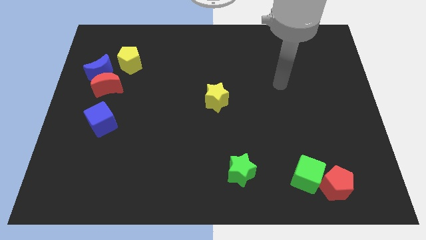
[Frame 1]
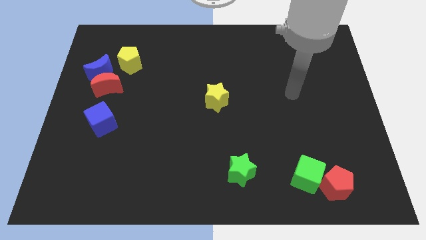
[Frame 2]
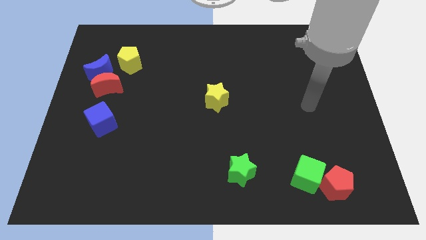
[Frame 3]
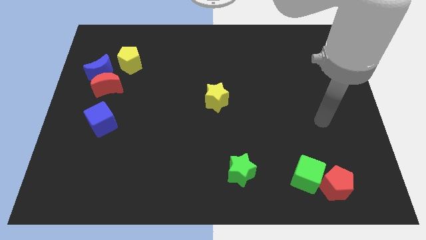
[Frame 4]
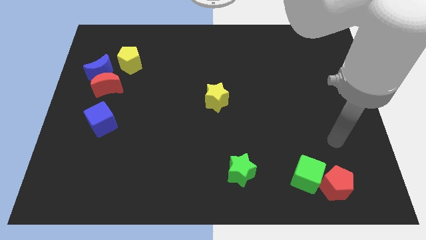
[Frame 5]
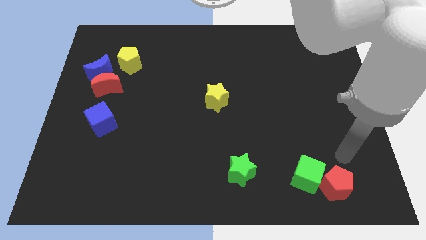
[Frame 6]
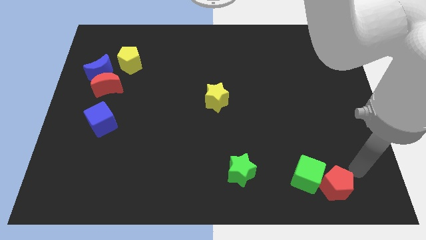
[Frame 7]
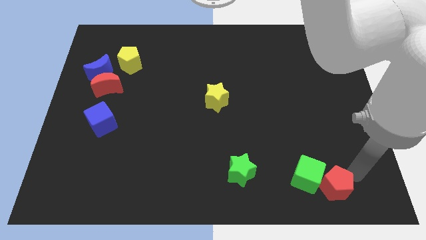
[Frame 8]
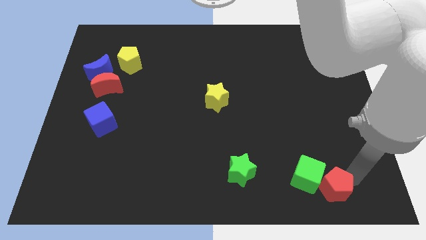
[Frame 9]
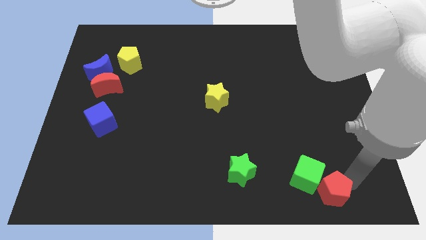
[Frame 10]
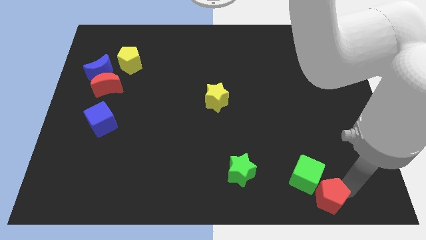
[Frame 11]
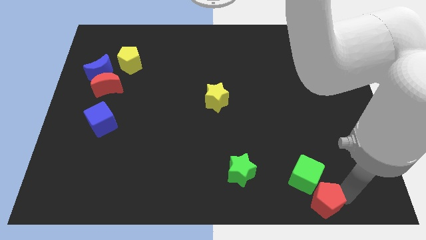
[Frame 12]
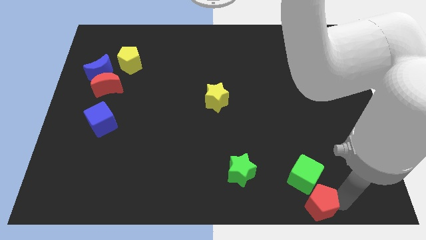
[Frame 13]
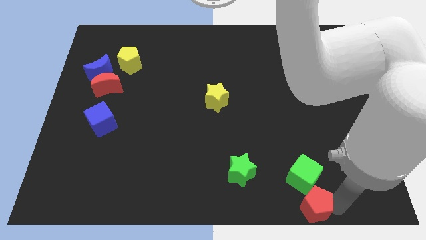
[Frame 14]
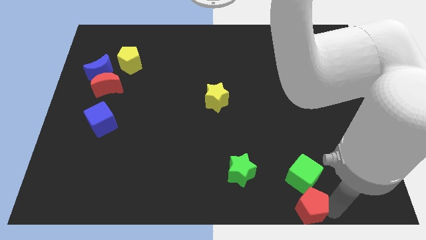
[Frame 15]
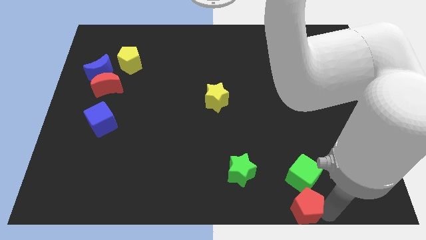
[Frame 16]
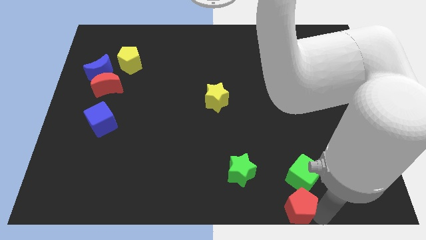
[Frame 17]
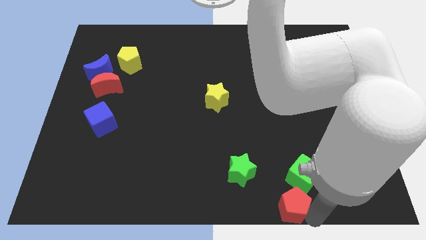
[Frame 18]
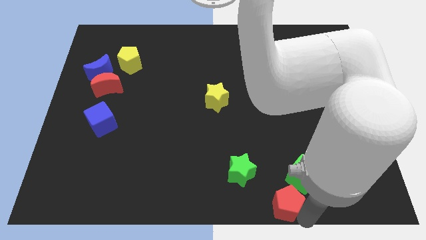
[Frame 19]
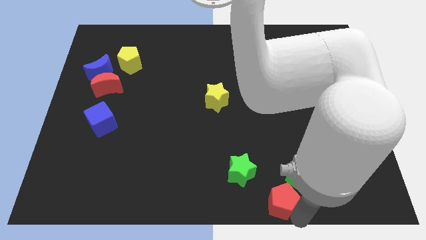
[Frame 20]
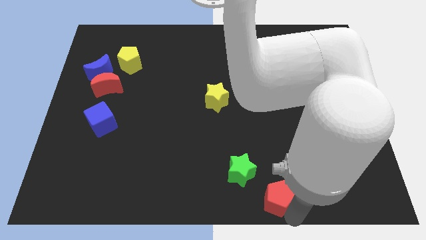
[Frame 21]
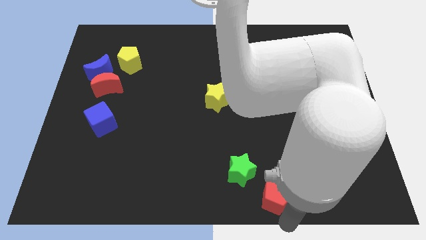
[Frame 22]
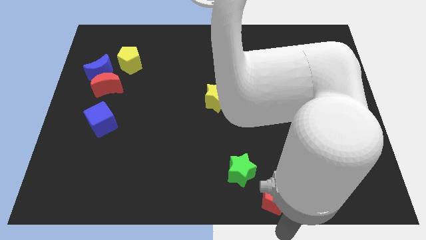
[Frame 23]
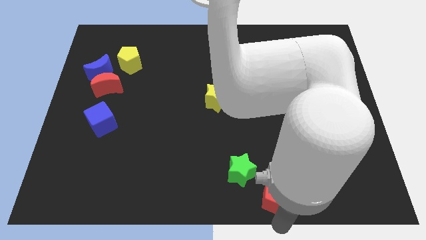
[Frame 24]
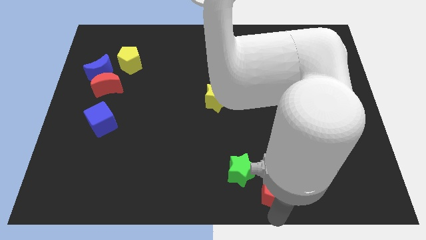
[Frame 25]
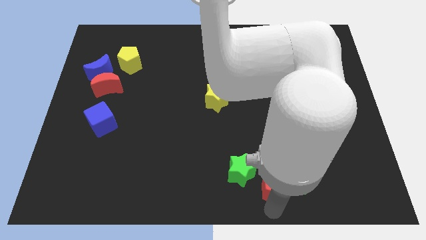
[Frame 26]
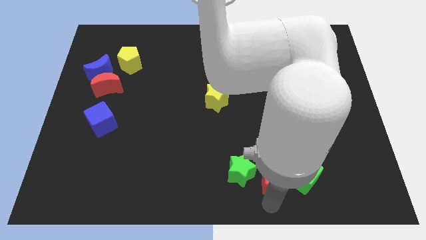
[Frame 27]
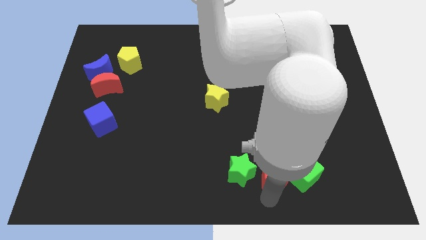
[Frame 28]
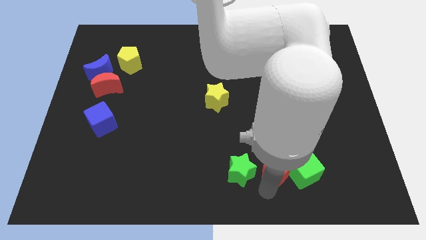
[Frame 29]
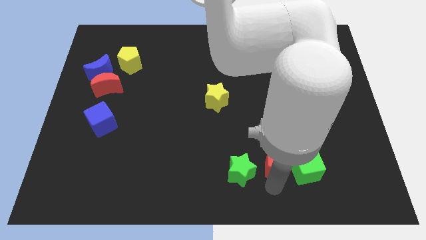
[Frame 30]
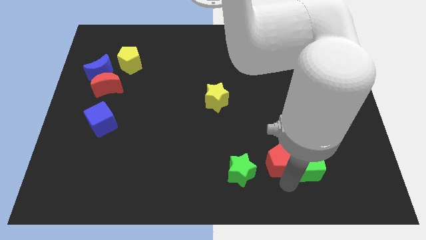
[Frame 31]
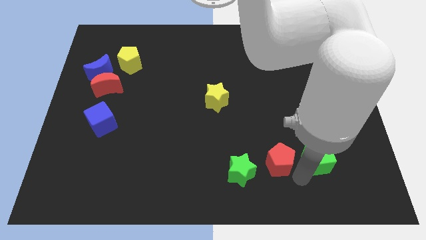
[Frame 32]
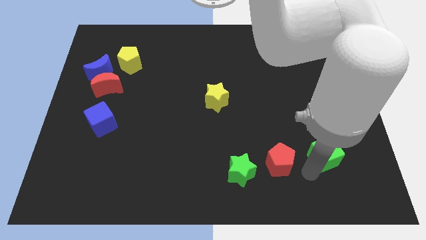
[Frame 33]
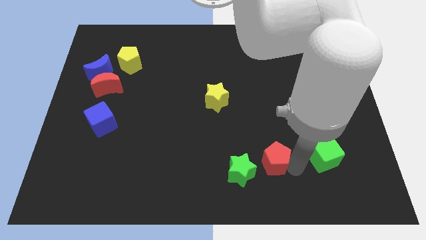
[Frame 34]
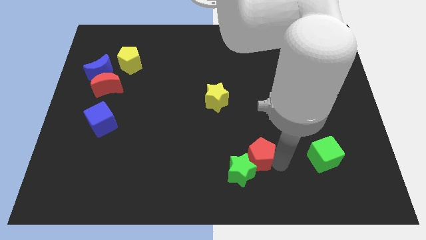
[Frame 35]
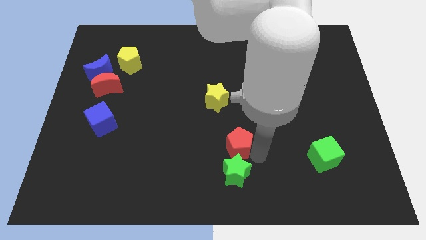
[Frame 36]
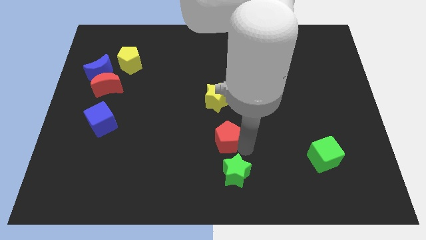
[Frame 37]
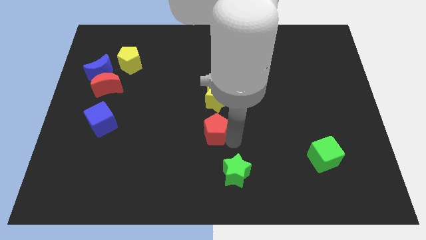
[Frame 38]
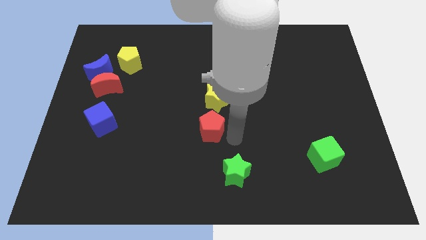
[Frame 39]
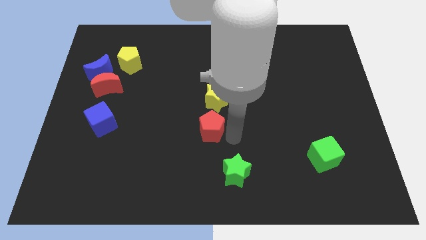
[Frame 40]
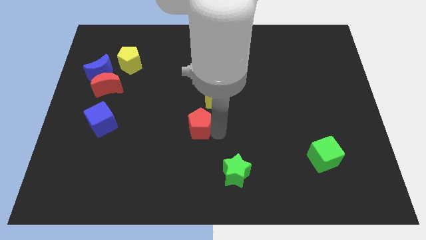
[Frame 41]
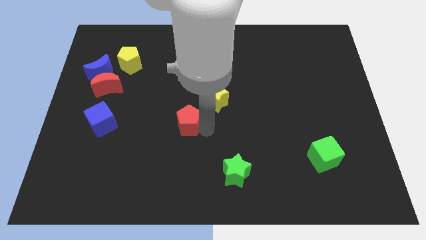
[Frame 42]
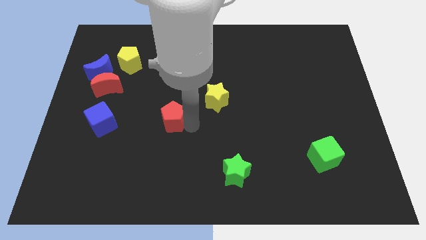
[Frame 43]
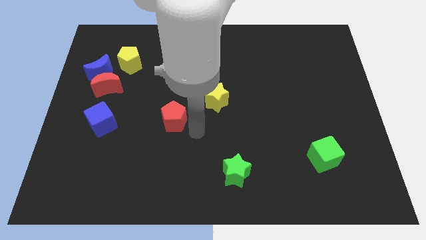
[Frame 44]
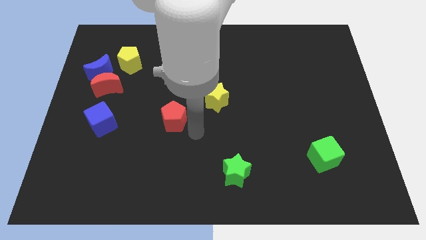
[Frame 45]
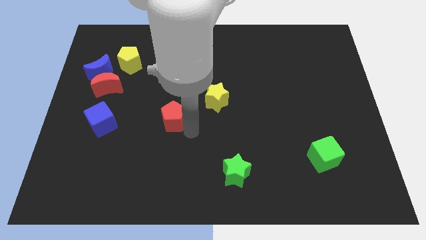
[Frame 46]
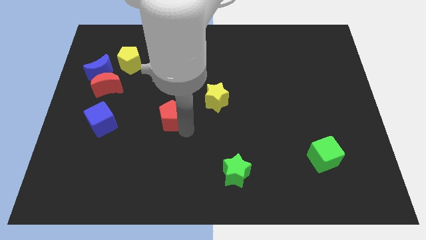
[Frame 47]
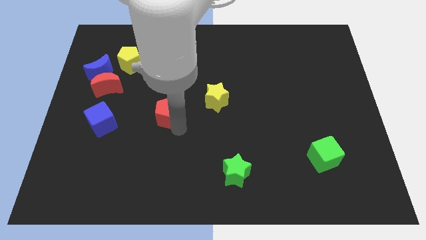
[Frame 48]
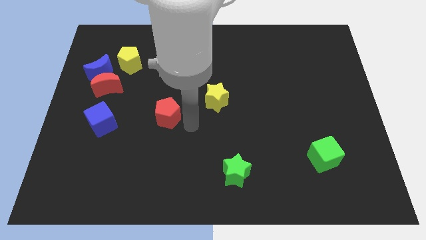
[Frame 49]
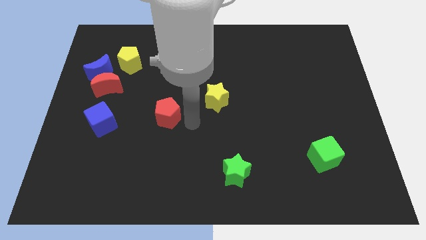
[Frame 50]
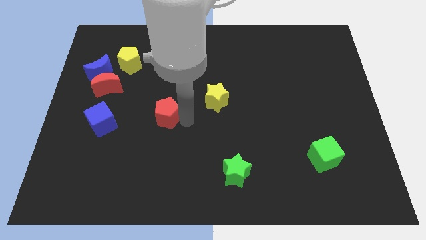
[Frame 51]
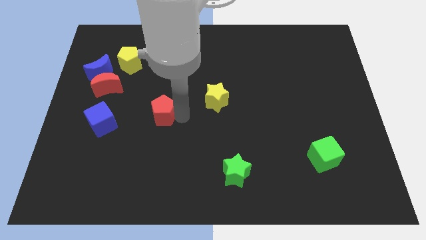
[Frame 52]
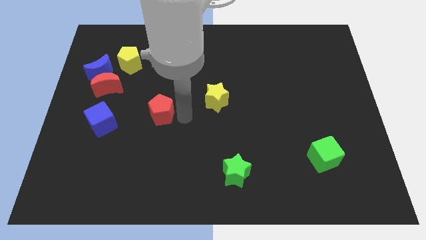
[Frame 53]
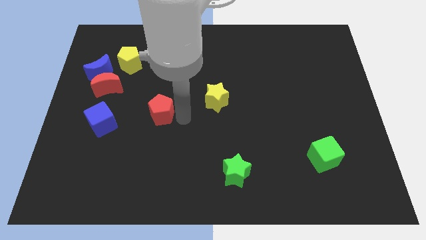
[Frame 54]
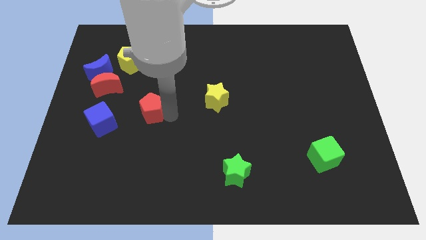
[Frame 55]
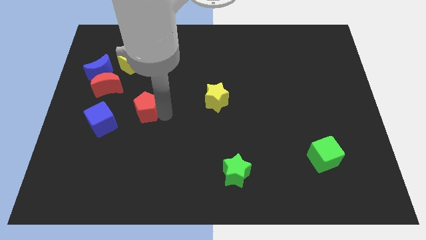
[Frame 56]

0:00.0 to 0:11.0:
move the red pentagon diagonally up and to the right of the blue cube

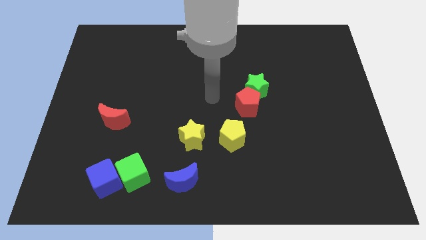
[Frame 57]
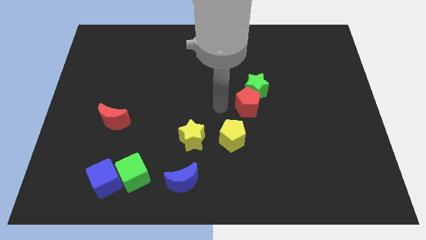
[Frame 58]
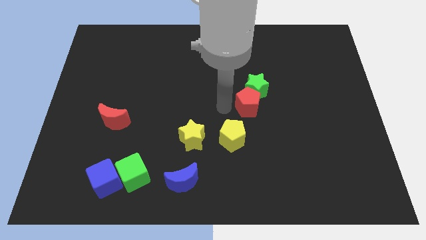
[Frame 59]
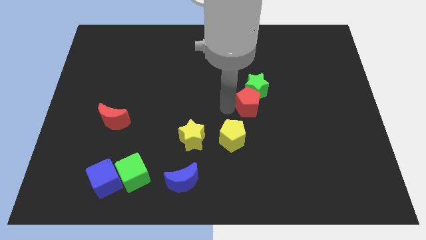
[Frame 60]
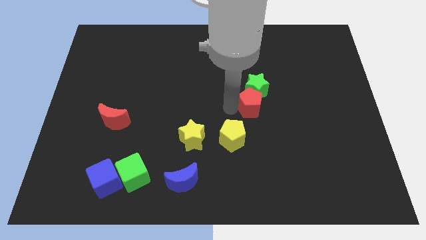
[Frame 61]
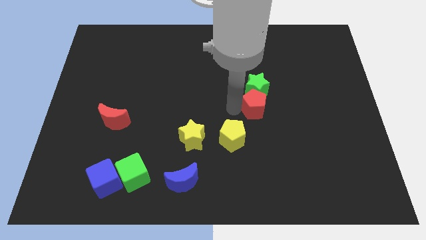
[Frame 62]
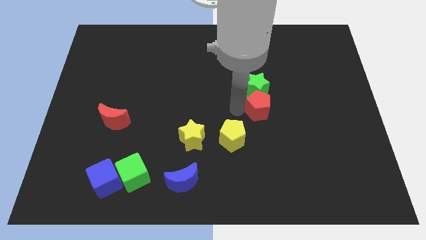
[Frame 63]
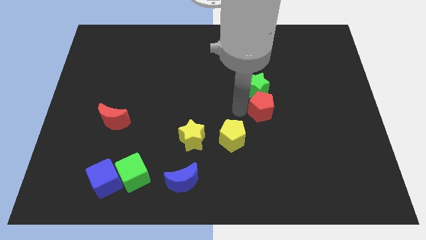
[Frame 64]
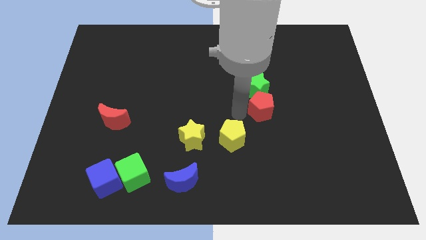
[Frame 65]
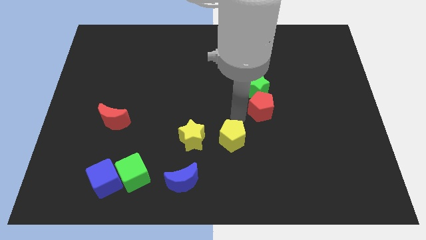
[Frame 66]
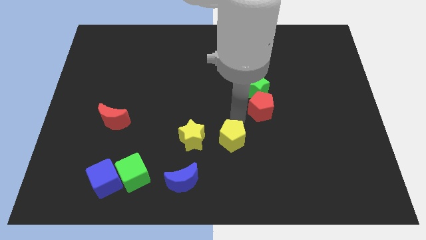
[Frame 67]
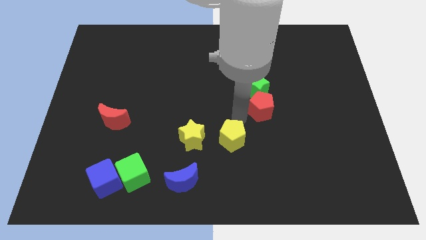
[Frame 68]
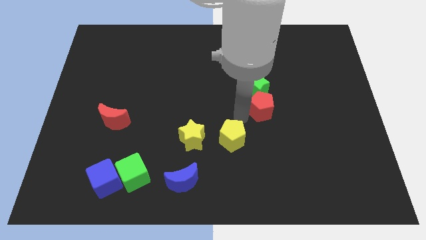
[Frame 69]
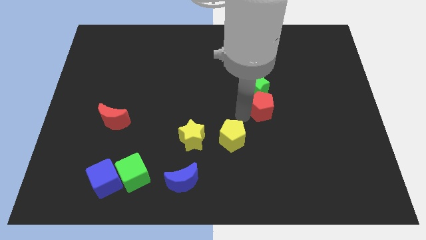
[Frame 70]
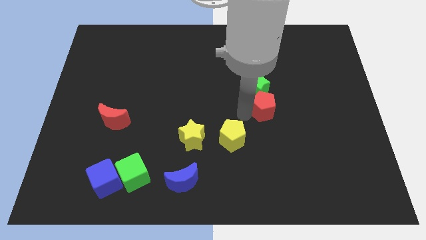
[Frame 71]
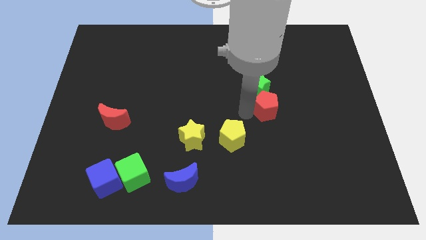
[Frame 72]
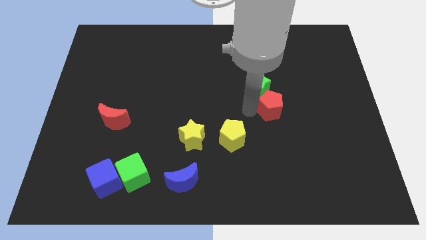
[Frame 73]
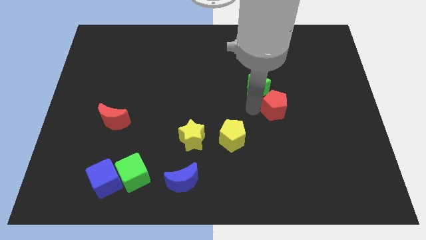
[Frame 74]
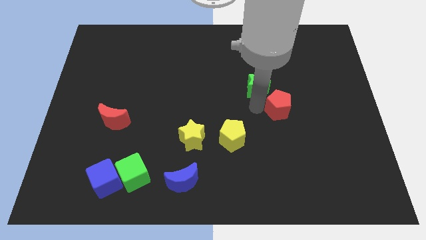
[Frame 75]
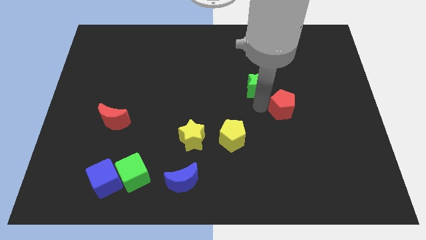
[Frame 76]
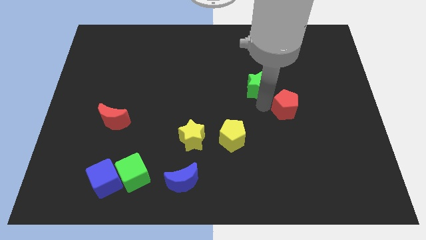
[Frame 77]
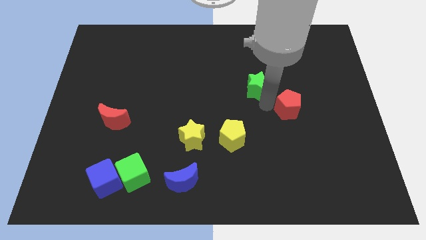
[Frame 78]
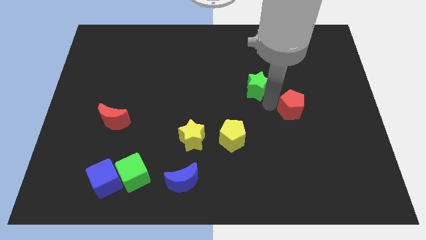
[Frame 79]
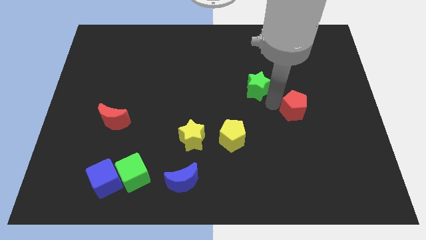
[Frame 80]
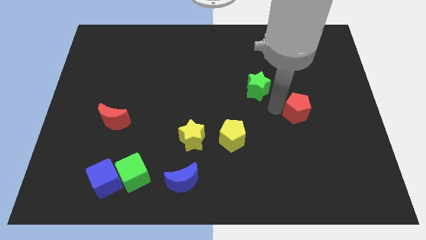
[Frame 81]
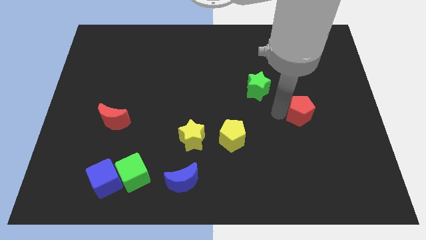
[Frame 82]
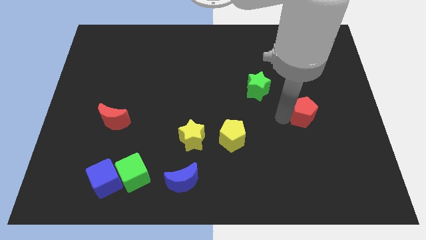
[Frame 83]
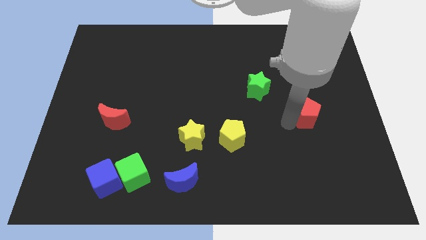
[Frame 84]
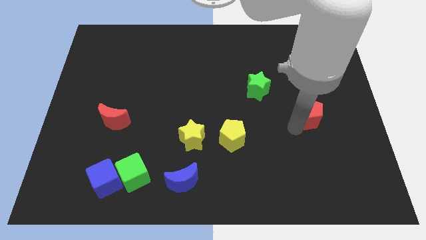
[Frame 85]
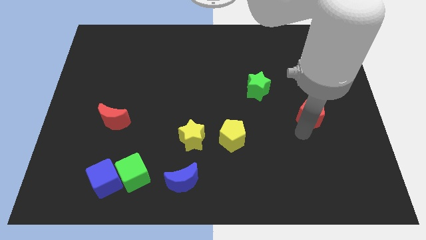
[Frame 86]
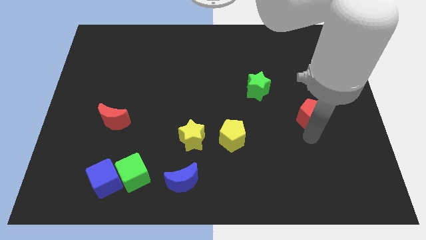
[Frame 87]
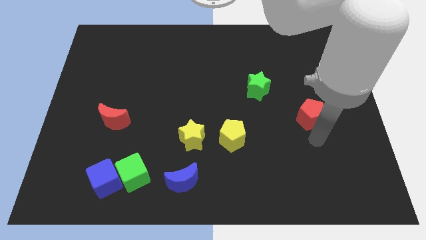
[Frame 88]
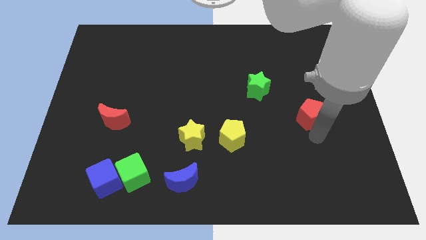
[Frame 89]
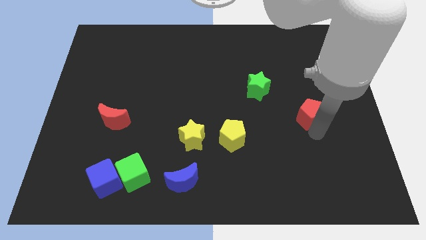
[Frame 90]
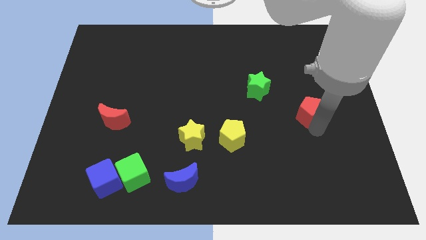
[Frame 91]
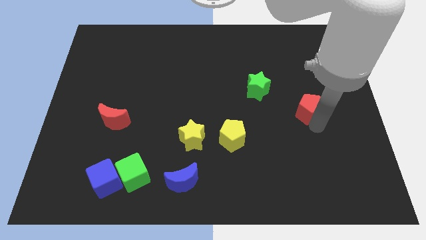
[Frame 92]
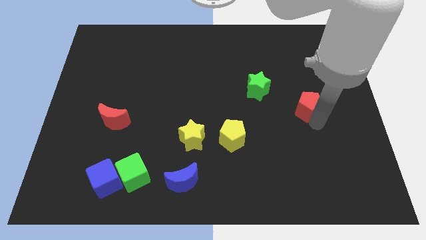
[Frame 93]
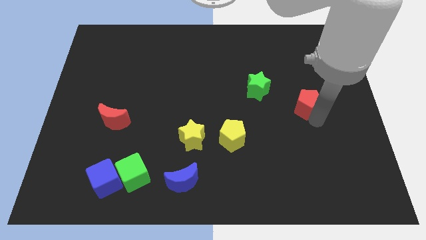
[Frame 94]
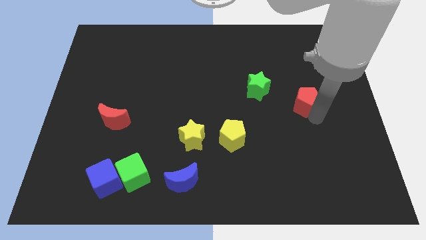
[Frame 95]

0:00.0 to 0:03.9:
put the red pentagon right of the green star
